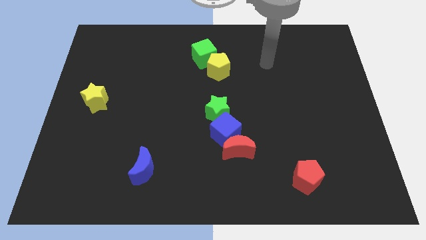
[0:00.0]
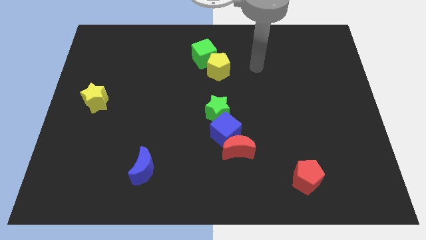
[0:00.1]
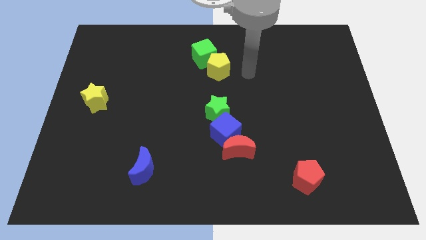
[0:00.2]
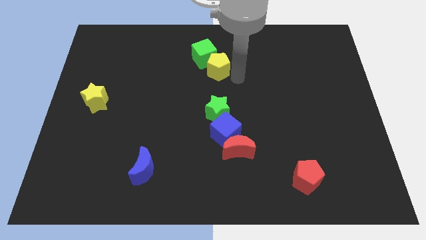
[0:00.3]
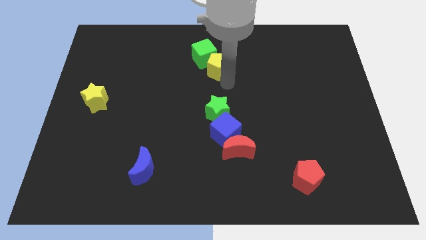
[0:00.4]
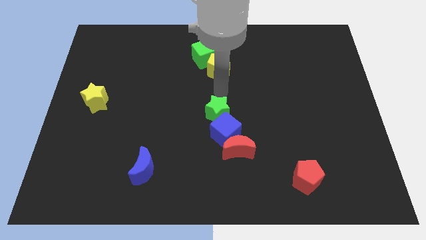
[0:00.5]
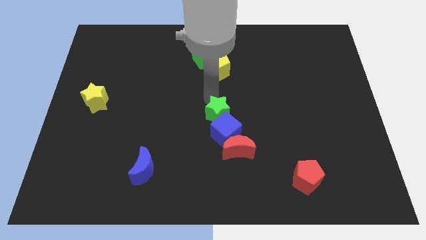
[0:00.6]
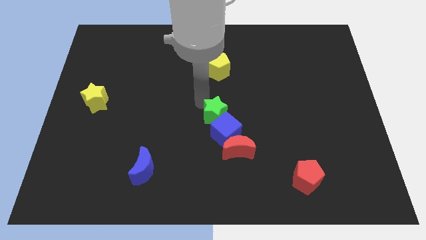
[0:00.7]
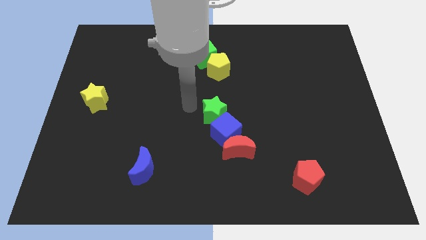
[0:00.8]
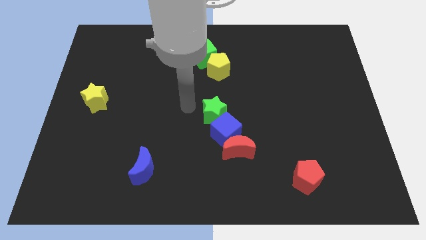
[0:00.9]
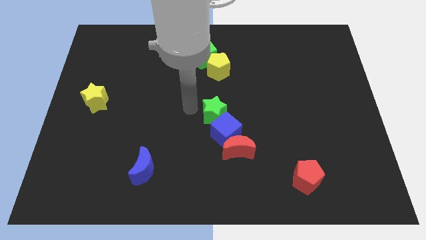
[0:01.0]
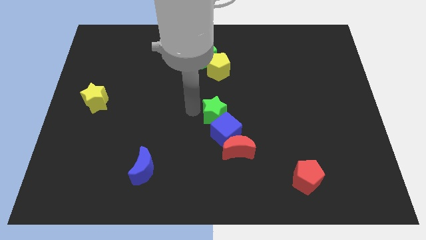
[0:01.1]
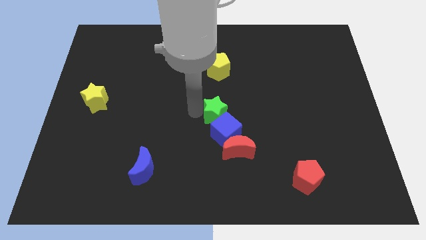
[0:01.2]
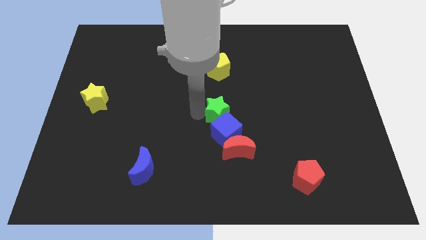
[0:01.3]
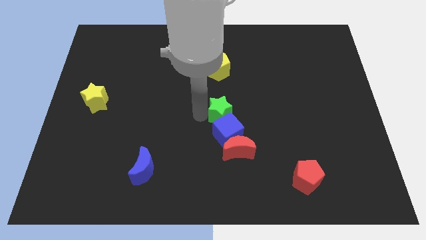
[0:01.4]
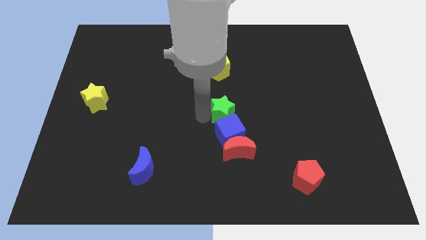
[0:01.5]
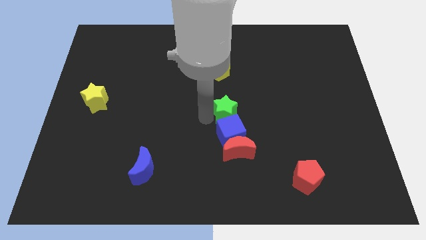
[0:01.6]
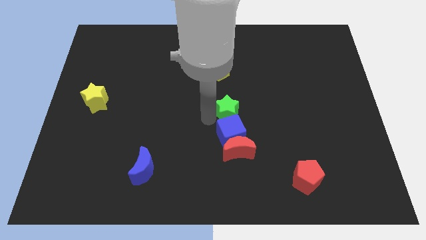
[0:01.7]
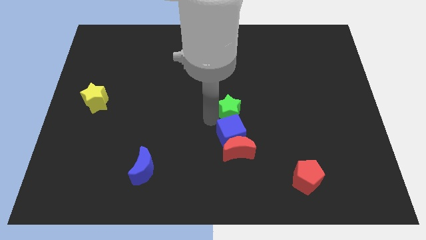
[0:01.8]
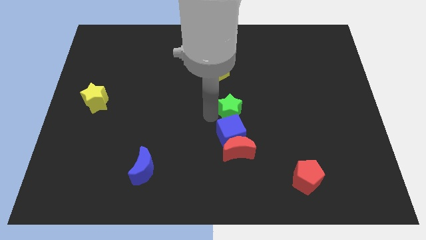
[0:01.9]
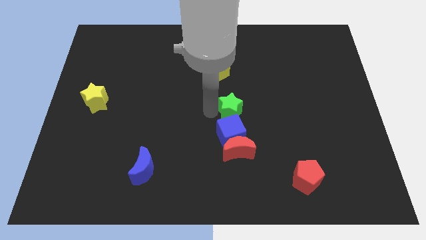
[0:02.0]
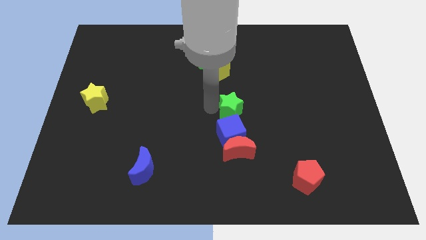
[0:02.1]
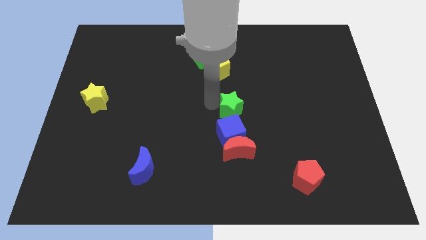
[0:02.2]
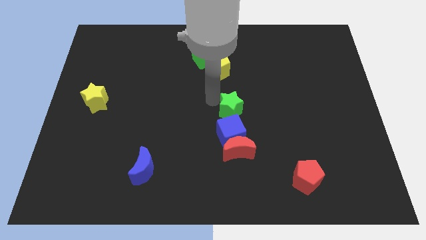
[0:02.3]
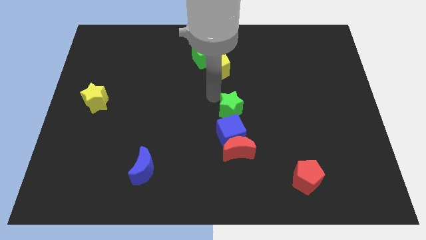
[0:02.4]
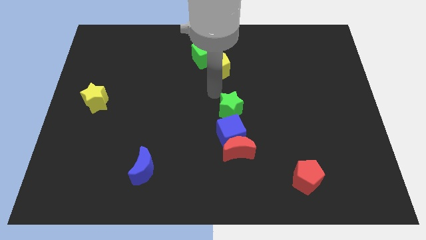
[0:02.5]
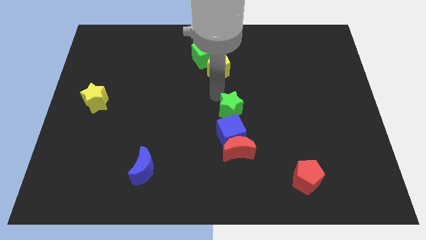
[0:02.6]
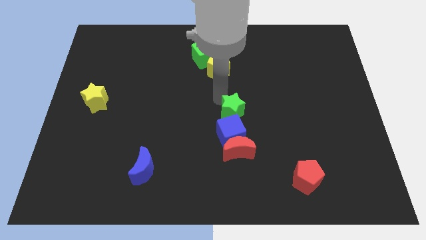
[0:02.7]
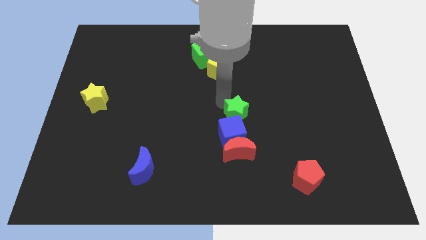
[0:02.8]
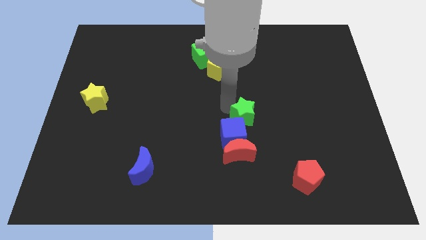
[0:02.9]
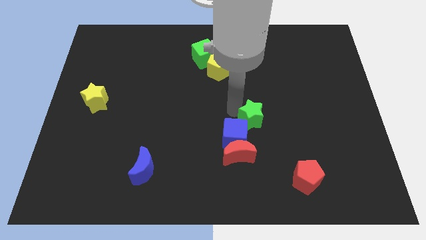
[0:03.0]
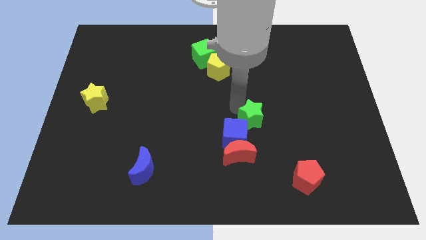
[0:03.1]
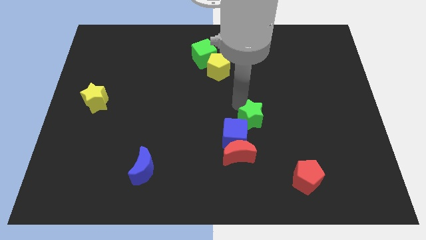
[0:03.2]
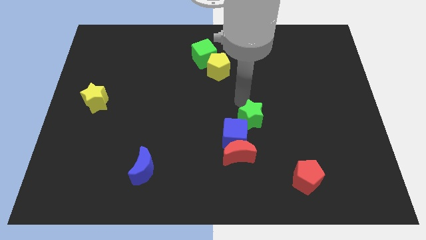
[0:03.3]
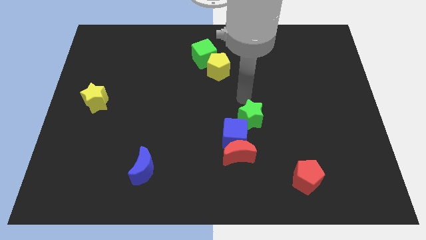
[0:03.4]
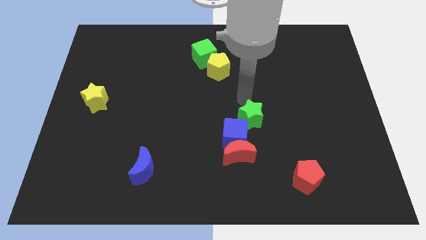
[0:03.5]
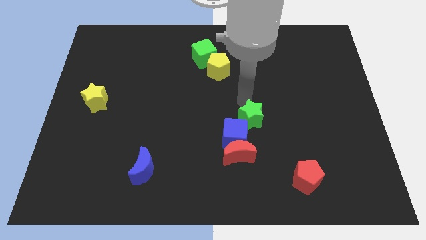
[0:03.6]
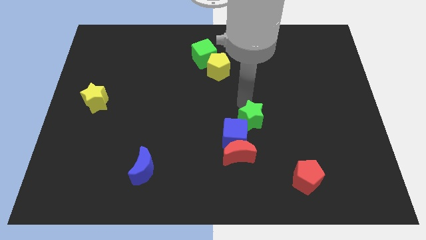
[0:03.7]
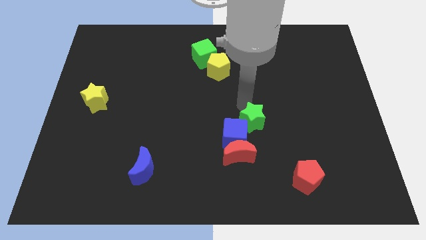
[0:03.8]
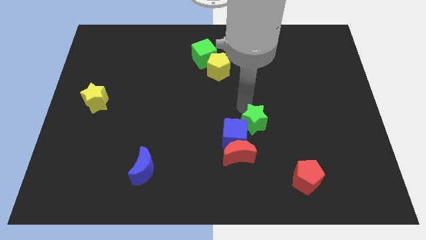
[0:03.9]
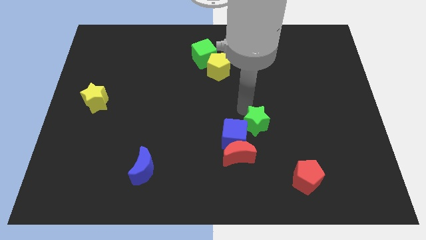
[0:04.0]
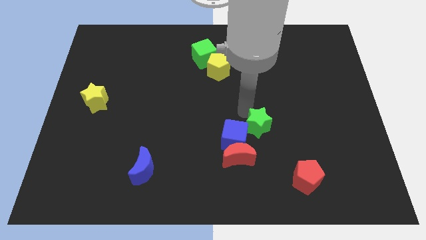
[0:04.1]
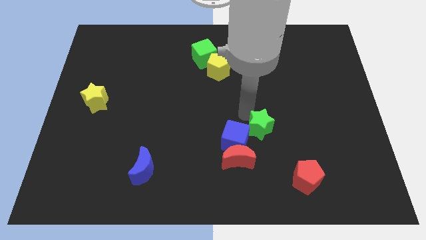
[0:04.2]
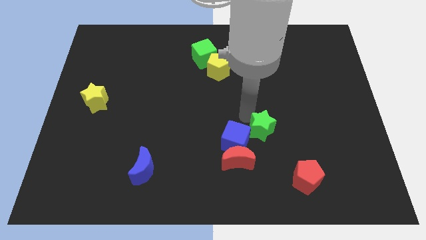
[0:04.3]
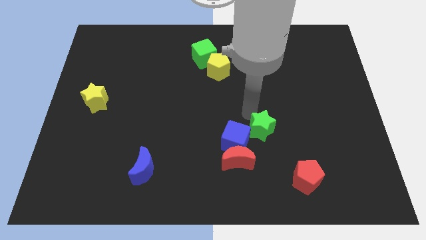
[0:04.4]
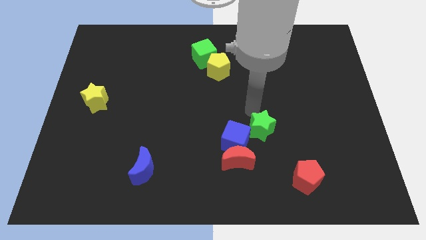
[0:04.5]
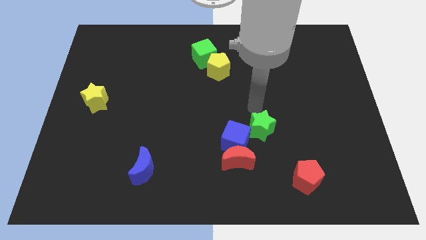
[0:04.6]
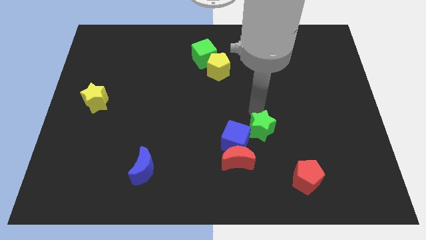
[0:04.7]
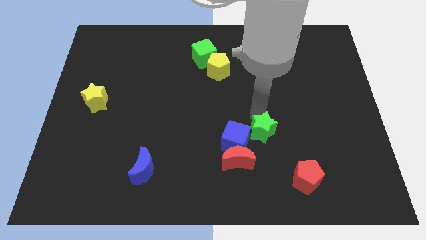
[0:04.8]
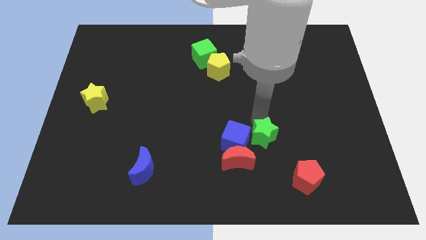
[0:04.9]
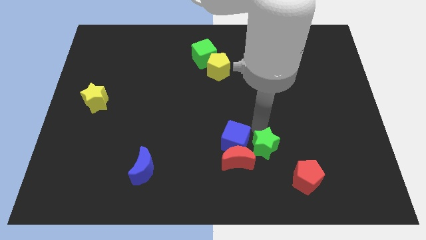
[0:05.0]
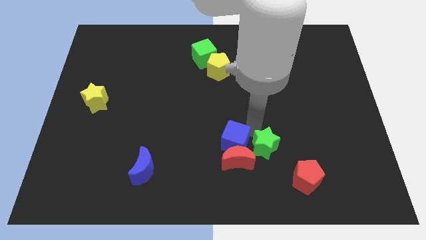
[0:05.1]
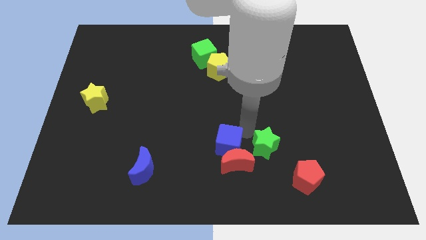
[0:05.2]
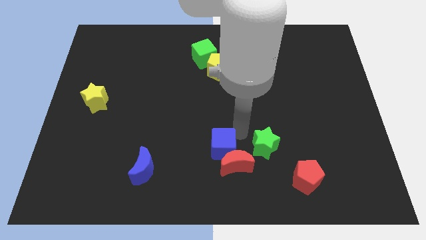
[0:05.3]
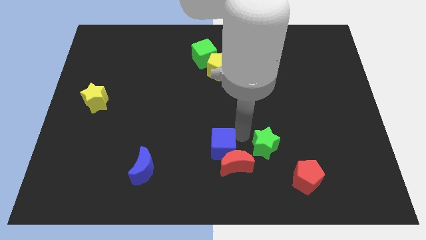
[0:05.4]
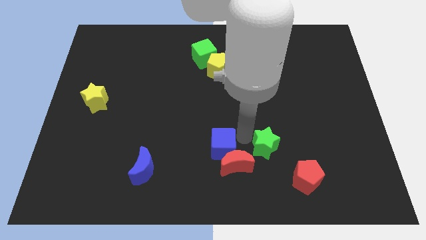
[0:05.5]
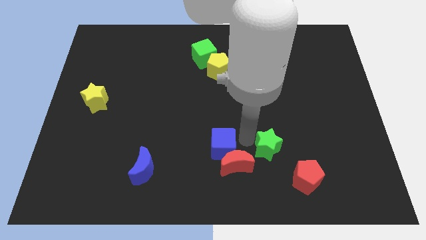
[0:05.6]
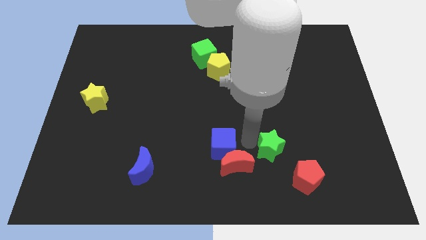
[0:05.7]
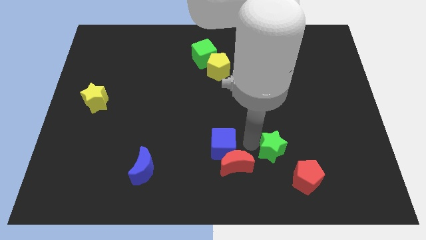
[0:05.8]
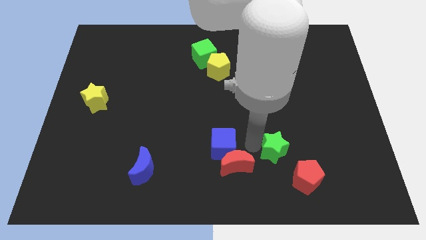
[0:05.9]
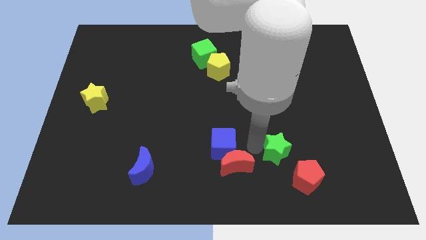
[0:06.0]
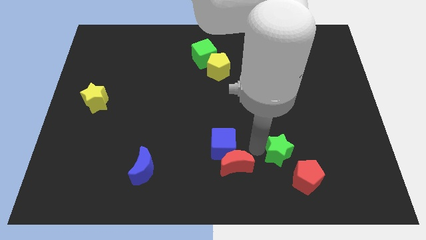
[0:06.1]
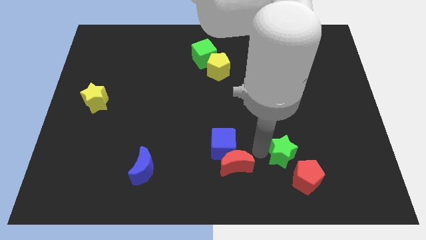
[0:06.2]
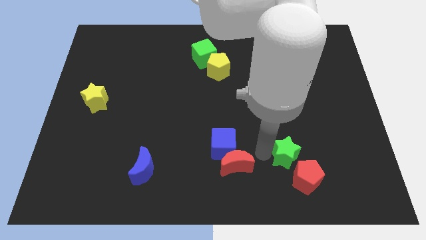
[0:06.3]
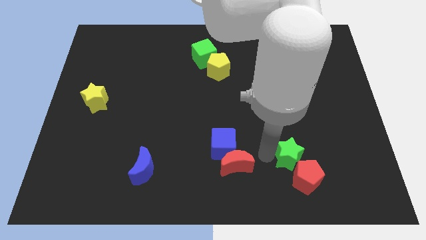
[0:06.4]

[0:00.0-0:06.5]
slide the green star towards the red pentagon

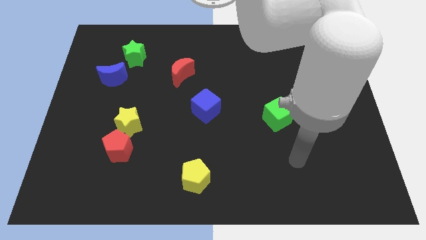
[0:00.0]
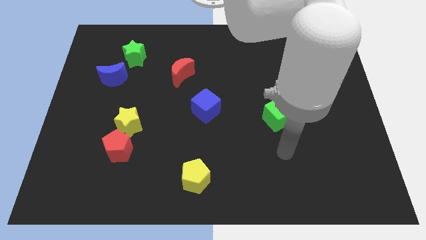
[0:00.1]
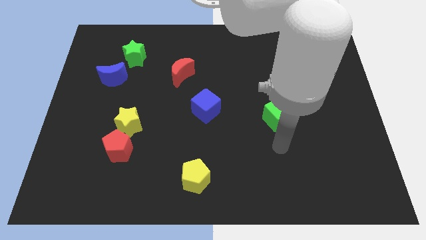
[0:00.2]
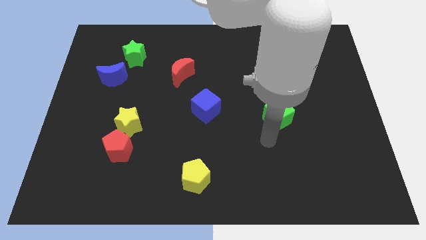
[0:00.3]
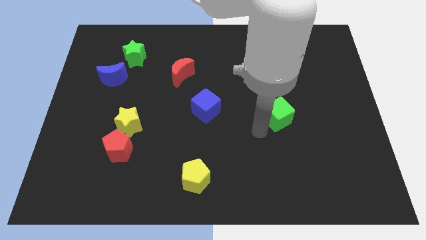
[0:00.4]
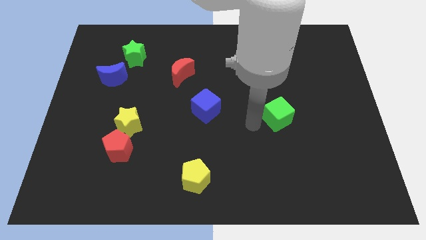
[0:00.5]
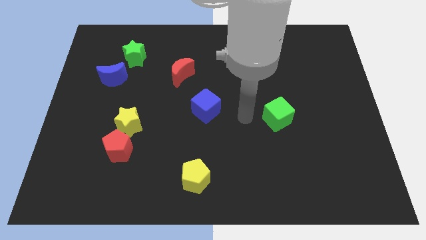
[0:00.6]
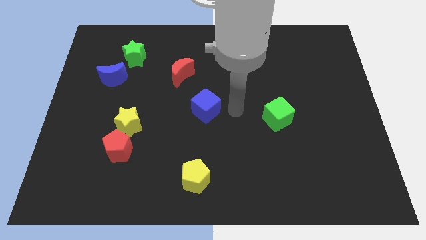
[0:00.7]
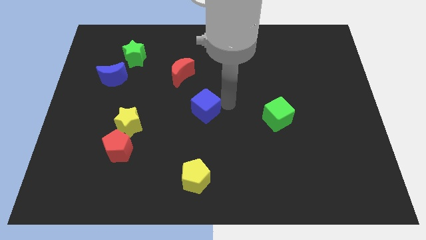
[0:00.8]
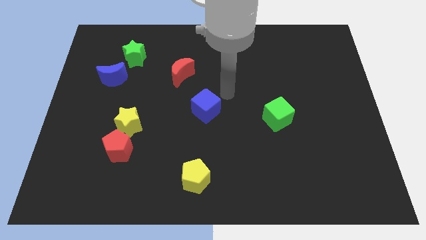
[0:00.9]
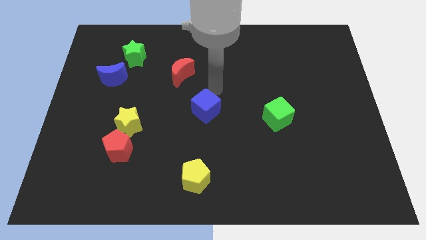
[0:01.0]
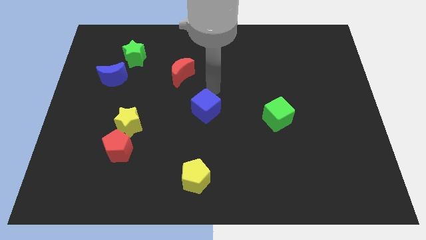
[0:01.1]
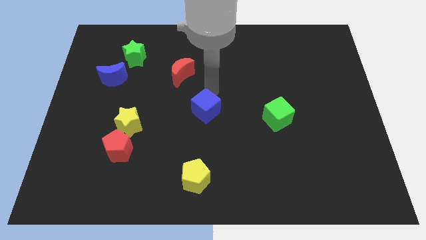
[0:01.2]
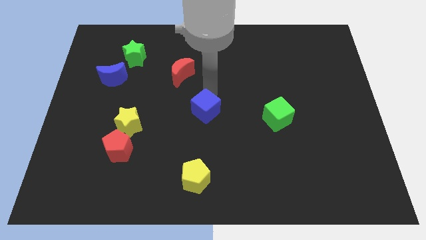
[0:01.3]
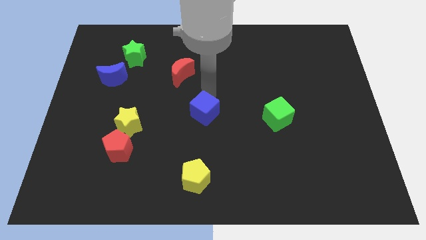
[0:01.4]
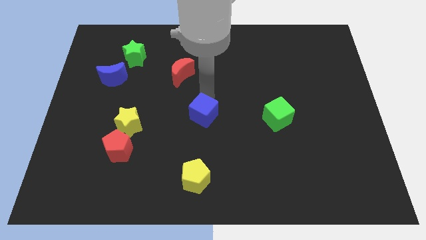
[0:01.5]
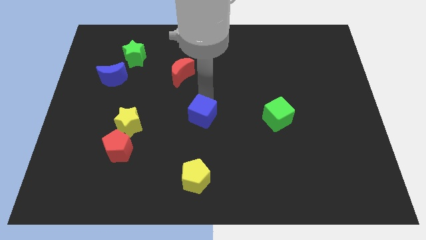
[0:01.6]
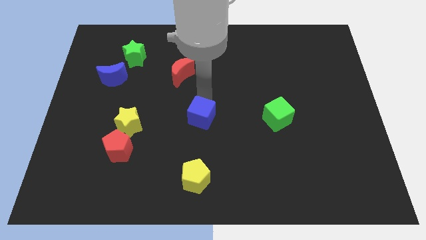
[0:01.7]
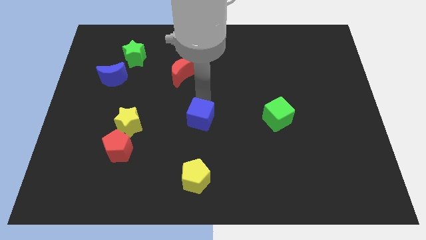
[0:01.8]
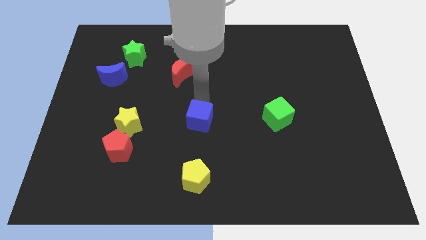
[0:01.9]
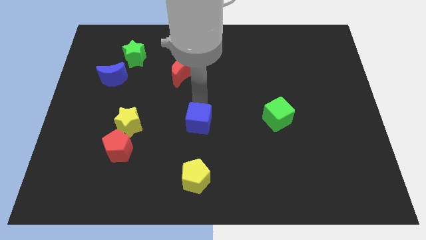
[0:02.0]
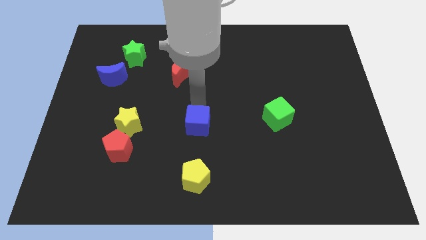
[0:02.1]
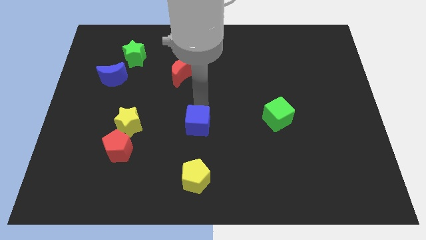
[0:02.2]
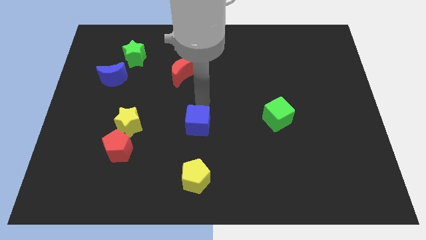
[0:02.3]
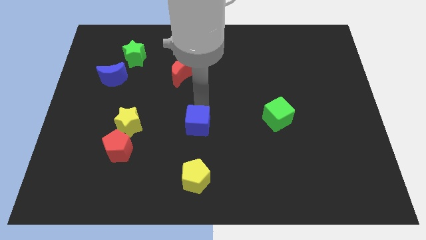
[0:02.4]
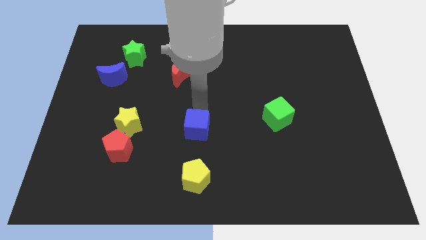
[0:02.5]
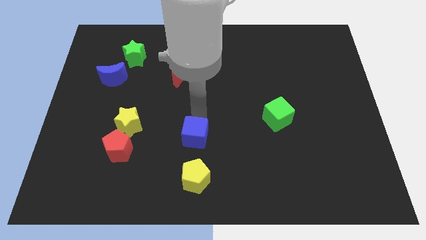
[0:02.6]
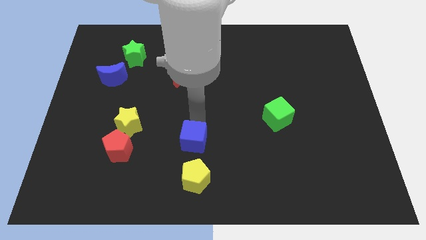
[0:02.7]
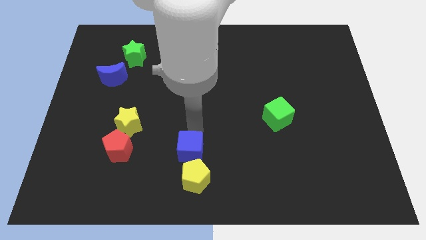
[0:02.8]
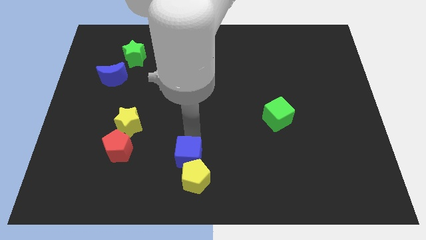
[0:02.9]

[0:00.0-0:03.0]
move the blue cube close to the yellow pentagon
